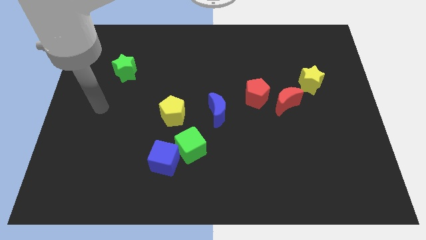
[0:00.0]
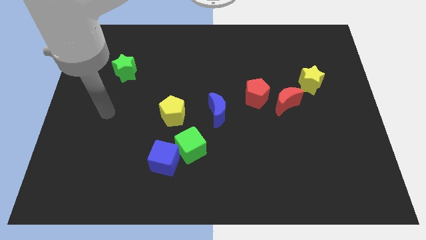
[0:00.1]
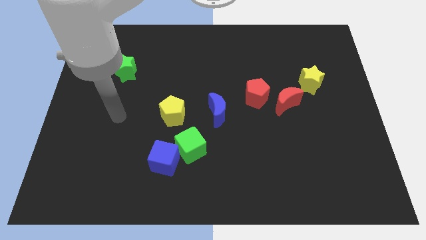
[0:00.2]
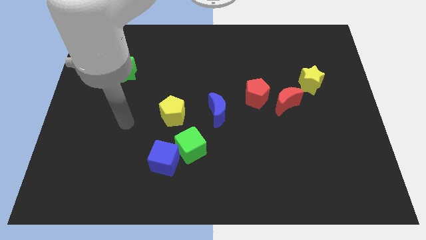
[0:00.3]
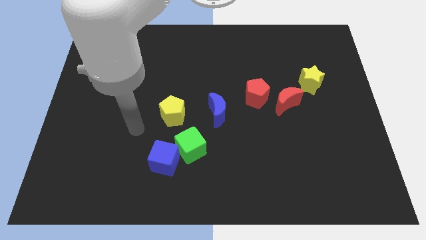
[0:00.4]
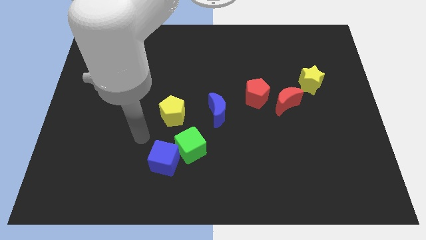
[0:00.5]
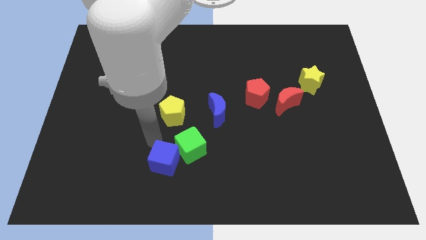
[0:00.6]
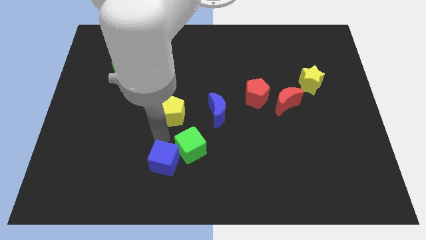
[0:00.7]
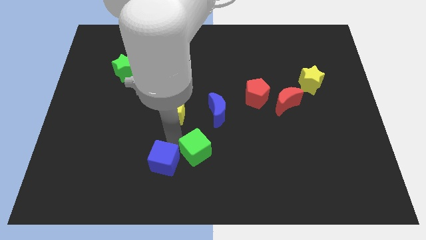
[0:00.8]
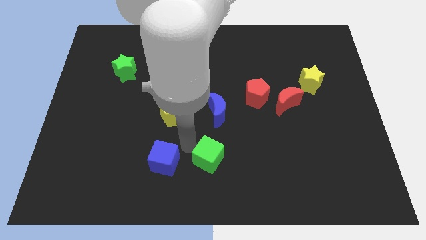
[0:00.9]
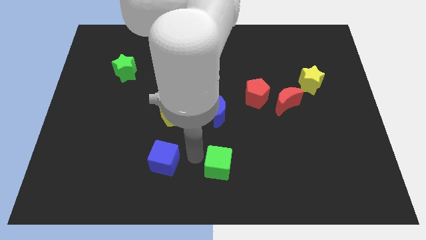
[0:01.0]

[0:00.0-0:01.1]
separate the blue cube from the green cube

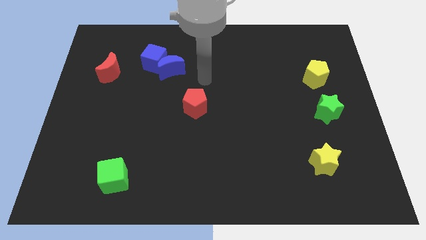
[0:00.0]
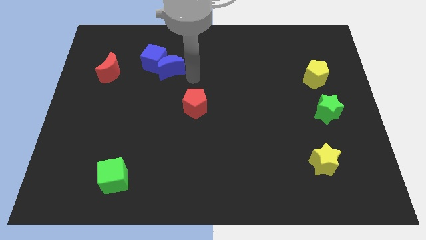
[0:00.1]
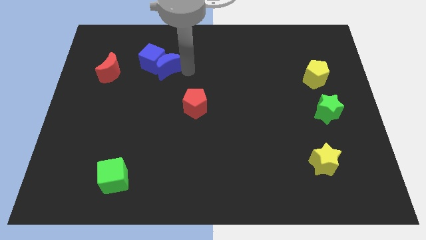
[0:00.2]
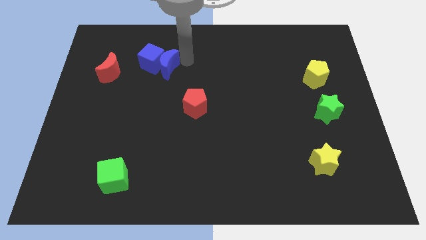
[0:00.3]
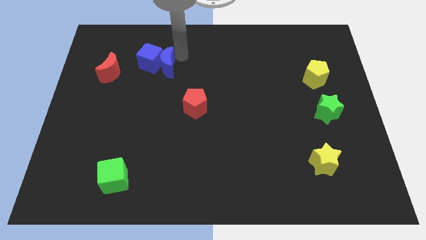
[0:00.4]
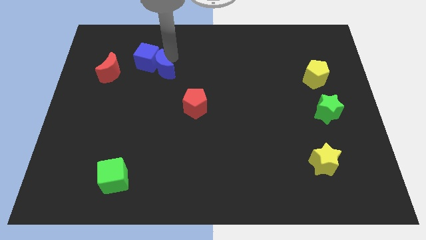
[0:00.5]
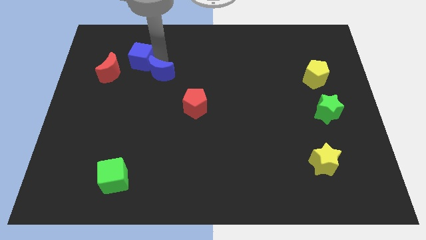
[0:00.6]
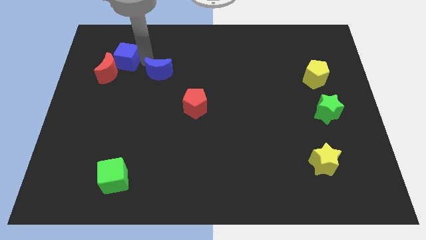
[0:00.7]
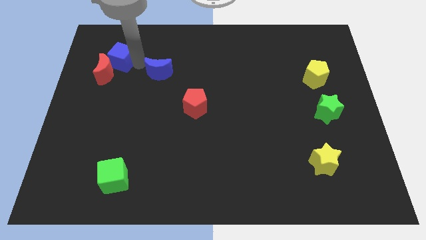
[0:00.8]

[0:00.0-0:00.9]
separate the blue moon from the blue cube

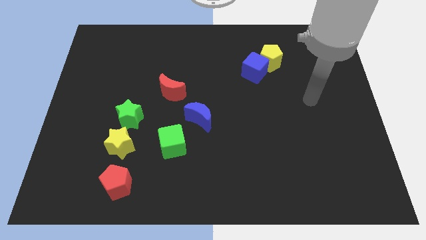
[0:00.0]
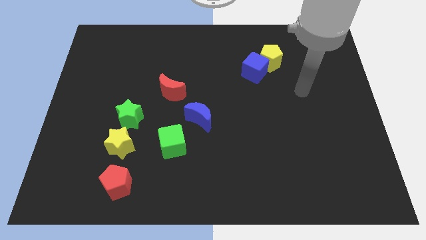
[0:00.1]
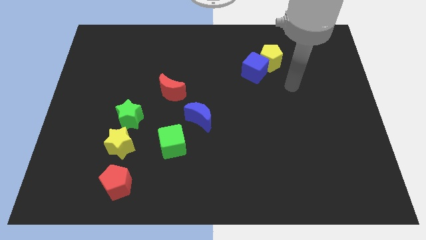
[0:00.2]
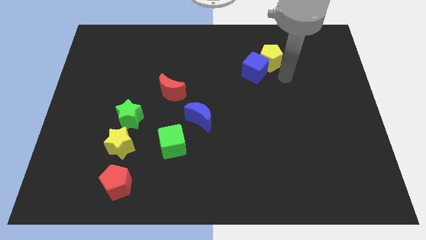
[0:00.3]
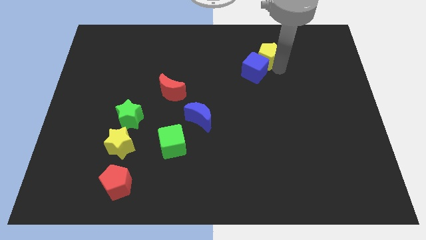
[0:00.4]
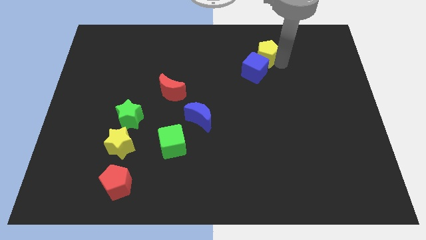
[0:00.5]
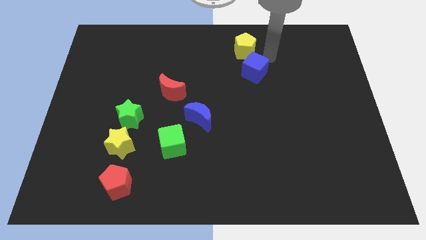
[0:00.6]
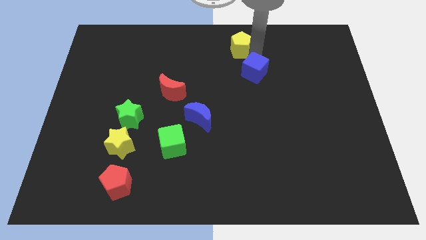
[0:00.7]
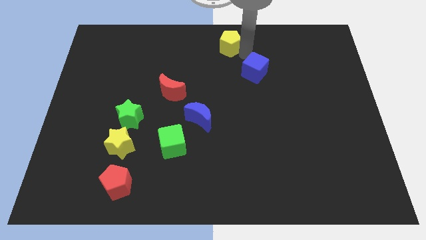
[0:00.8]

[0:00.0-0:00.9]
separate the blue cube from the yellow pentagon

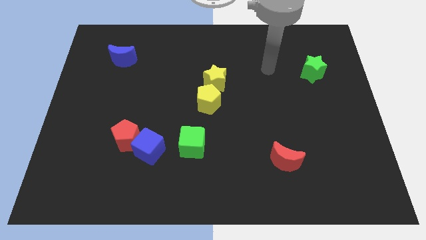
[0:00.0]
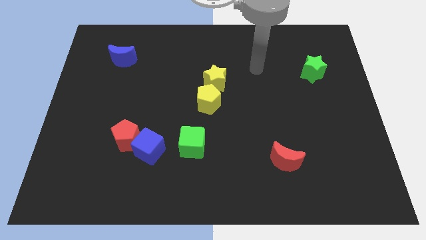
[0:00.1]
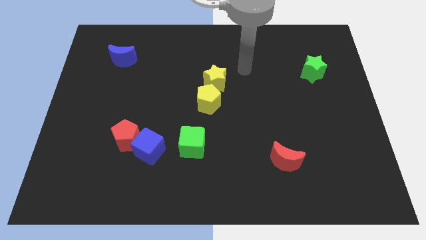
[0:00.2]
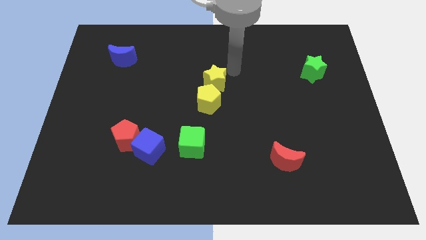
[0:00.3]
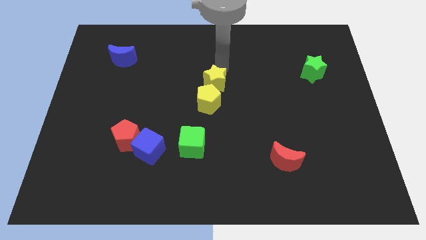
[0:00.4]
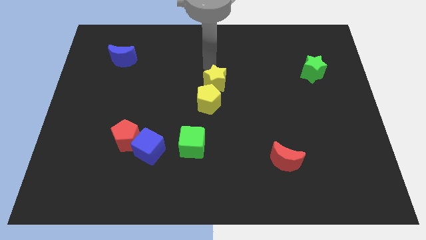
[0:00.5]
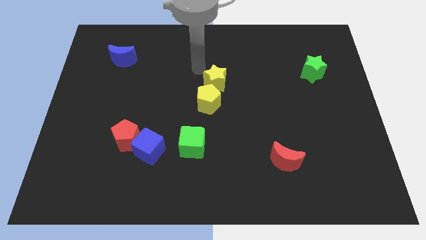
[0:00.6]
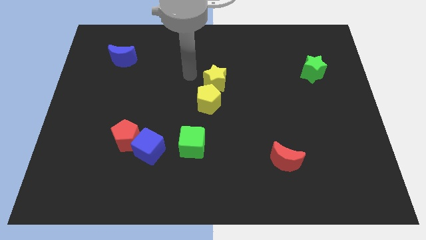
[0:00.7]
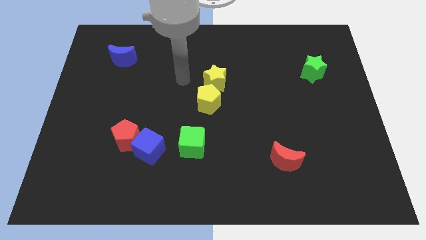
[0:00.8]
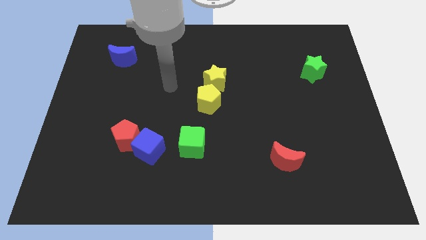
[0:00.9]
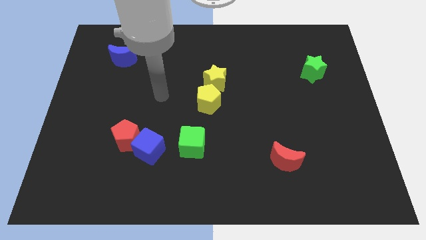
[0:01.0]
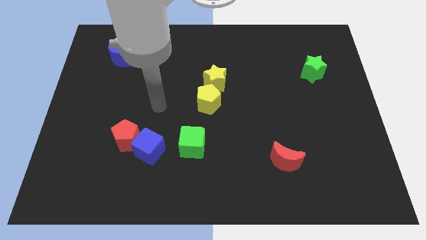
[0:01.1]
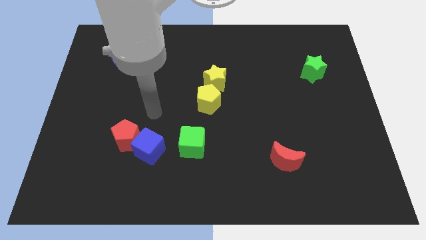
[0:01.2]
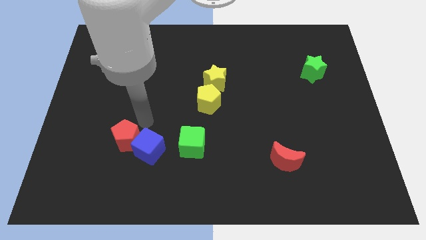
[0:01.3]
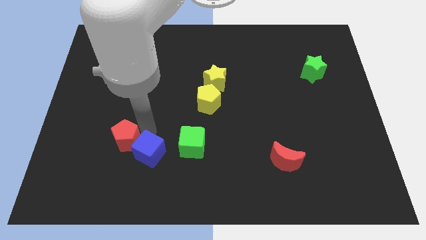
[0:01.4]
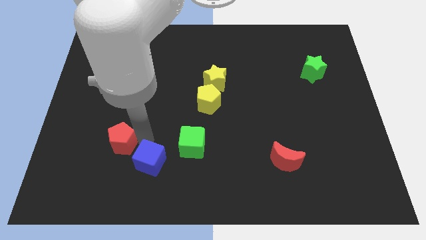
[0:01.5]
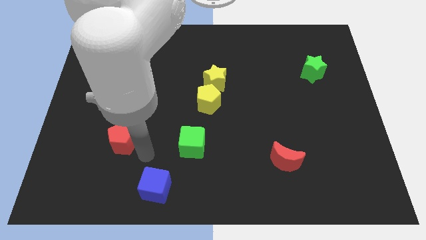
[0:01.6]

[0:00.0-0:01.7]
separate the red pentagon from the blue cube

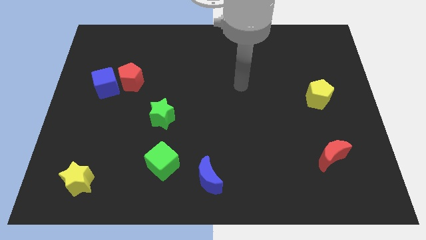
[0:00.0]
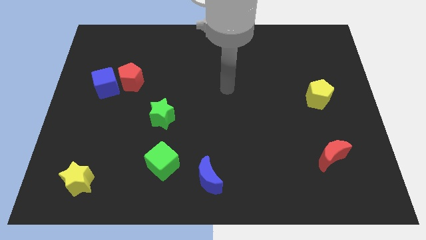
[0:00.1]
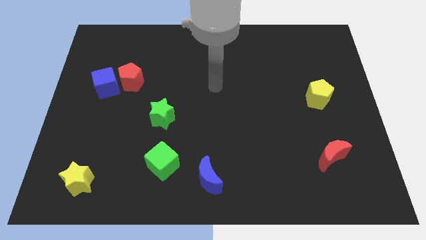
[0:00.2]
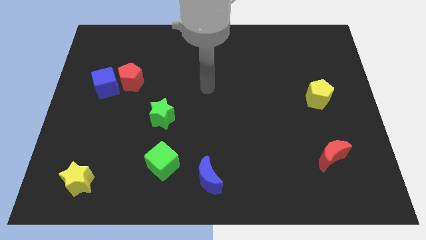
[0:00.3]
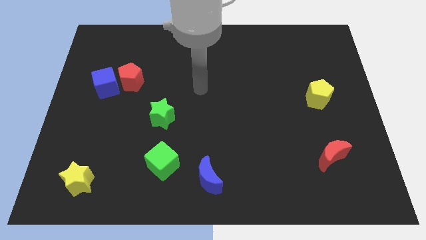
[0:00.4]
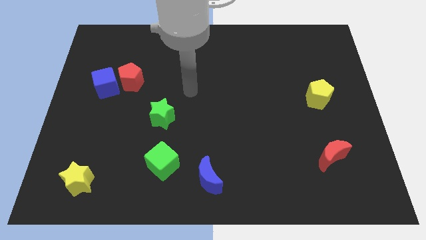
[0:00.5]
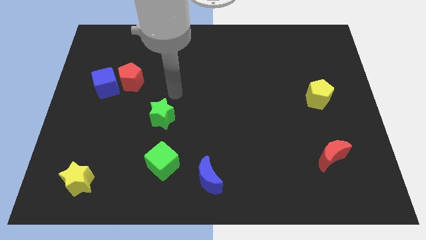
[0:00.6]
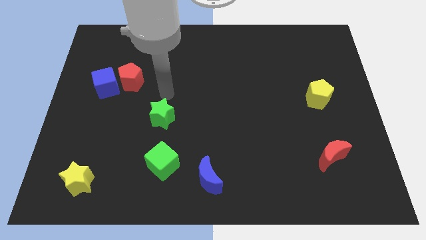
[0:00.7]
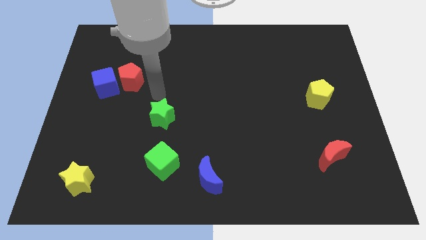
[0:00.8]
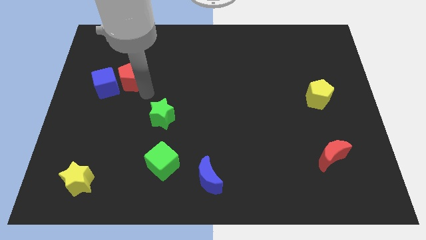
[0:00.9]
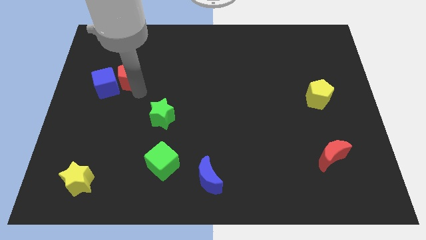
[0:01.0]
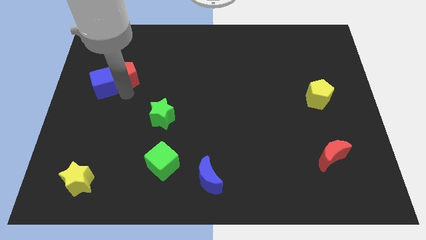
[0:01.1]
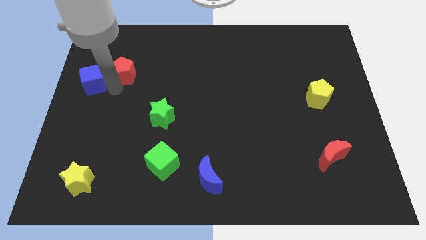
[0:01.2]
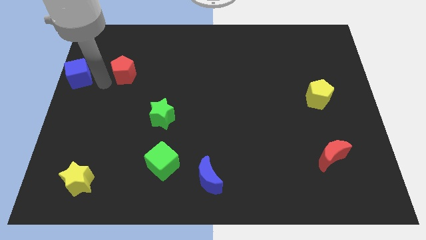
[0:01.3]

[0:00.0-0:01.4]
move the red pentagon away from the blue cube

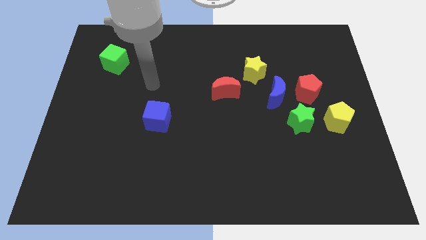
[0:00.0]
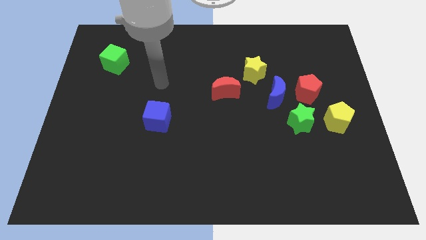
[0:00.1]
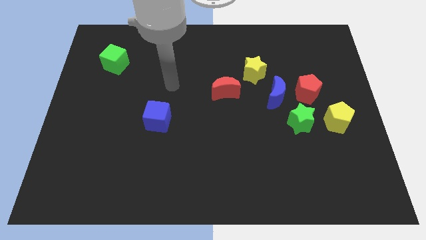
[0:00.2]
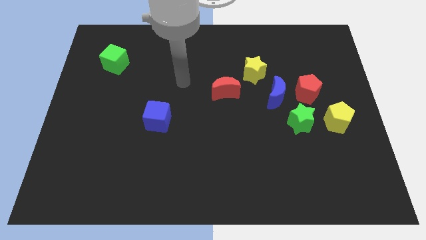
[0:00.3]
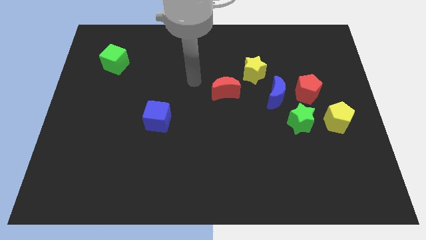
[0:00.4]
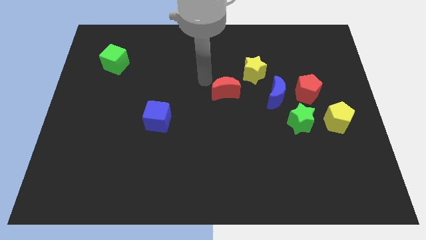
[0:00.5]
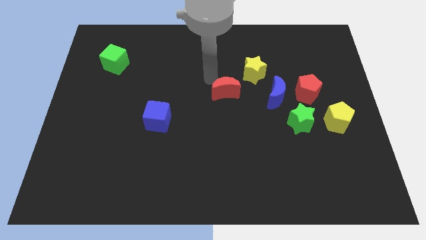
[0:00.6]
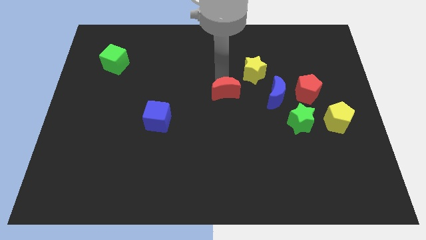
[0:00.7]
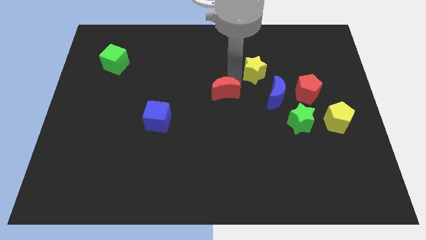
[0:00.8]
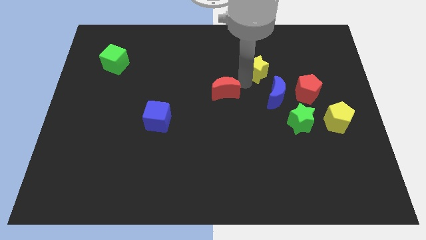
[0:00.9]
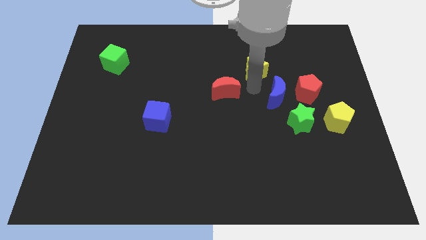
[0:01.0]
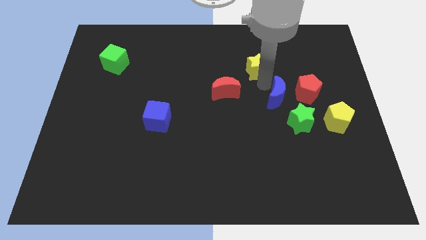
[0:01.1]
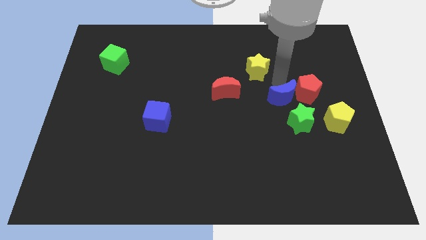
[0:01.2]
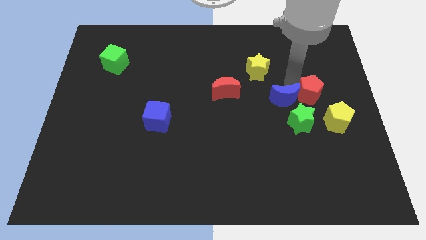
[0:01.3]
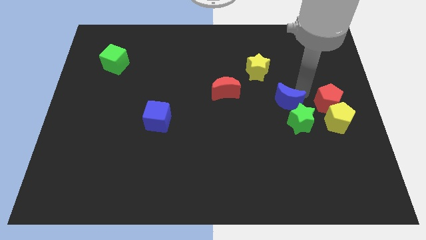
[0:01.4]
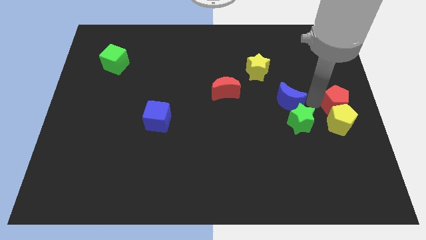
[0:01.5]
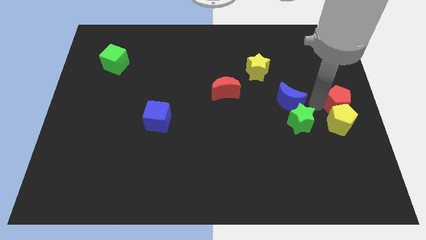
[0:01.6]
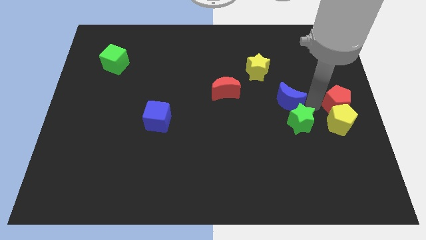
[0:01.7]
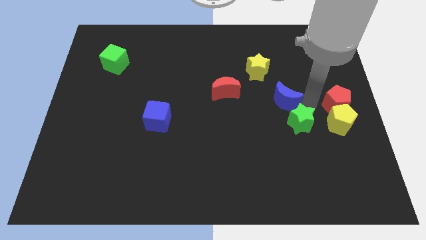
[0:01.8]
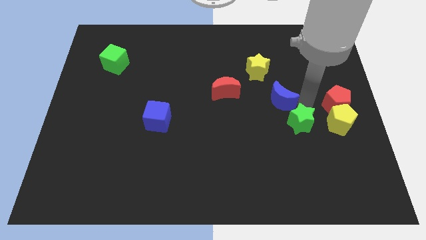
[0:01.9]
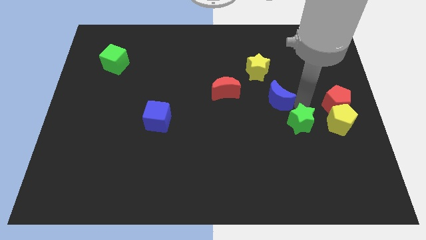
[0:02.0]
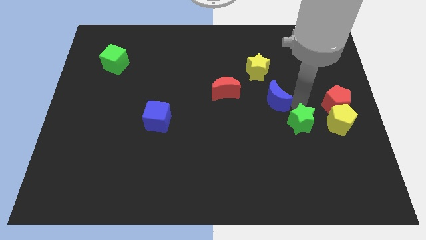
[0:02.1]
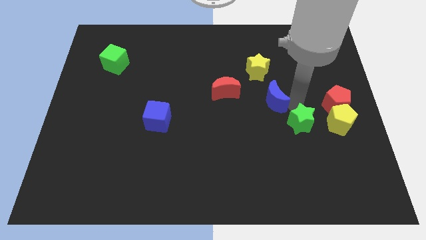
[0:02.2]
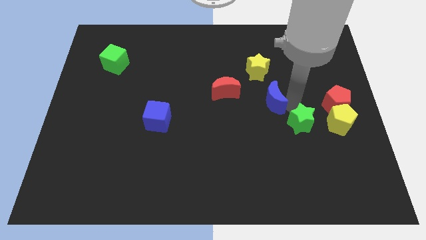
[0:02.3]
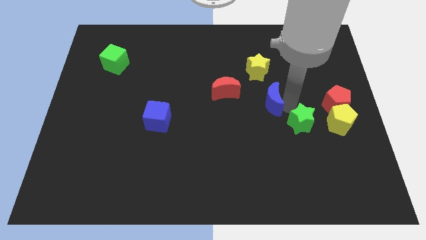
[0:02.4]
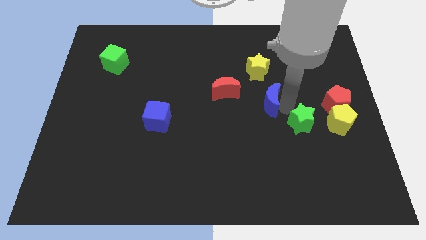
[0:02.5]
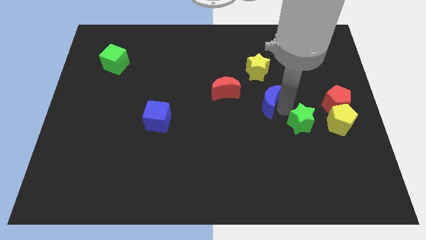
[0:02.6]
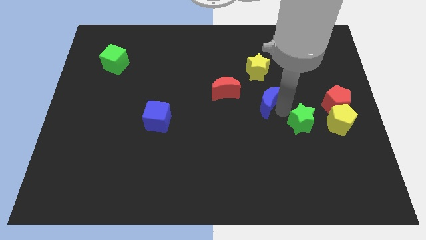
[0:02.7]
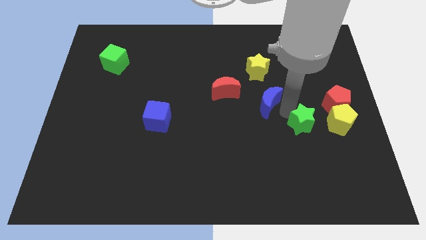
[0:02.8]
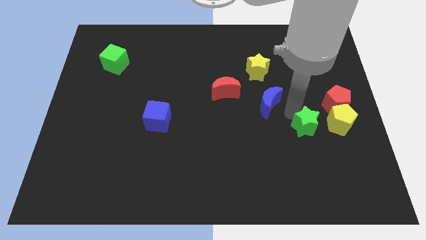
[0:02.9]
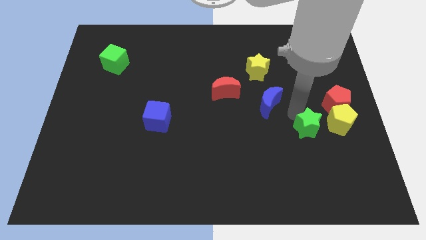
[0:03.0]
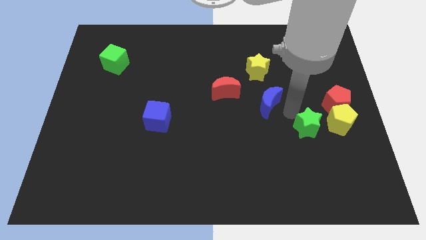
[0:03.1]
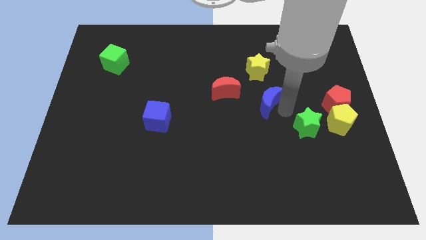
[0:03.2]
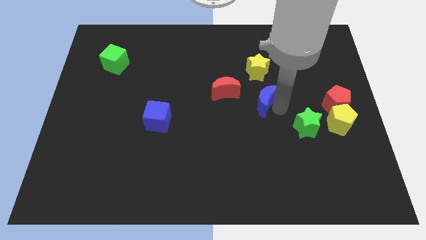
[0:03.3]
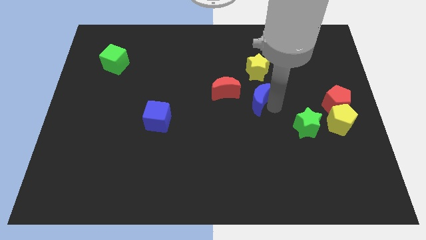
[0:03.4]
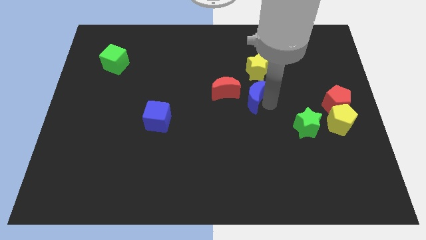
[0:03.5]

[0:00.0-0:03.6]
separate the blue moon from the group
